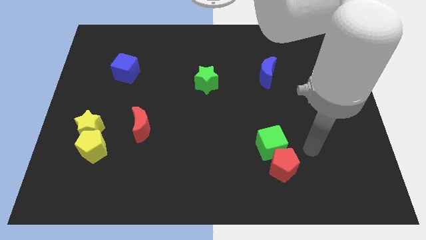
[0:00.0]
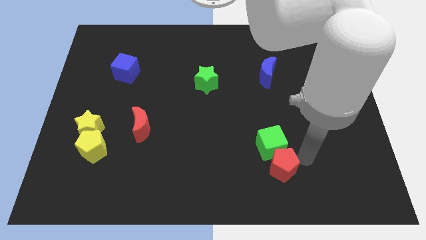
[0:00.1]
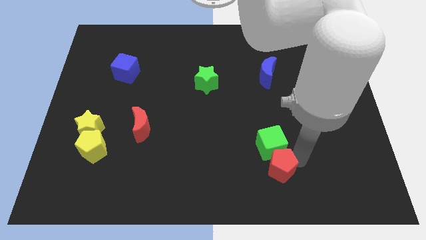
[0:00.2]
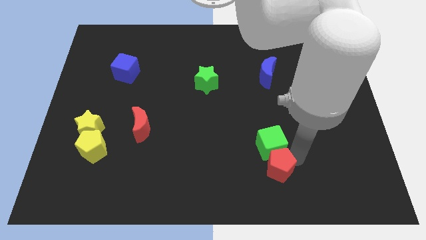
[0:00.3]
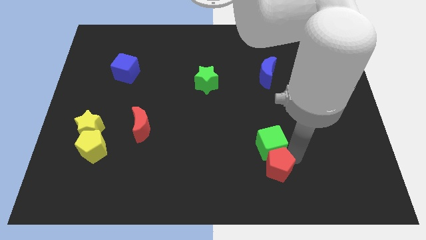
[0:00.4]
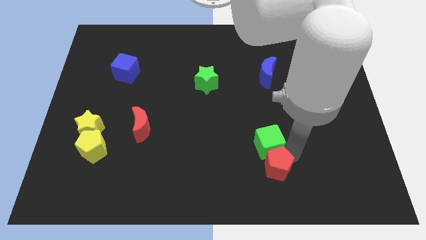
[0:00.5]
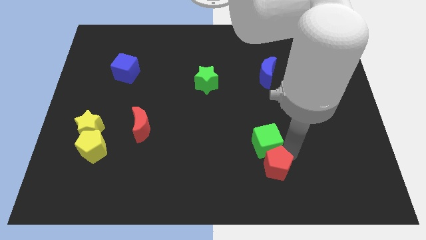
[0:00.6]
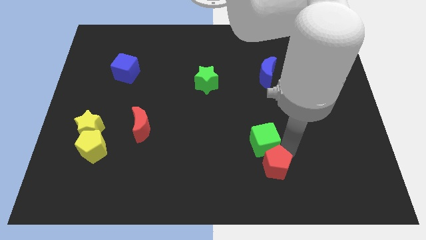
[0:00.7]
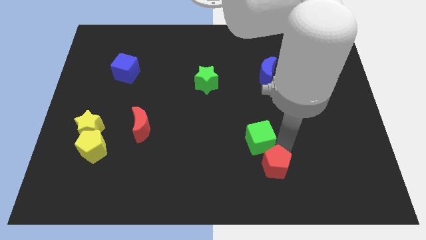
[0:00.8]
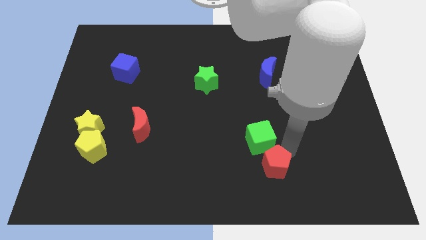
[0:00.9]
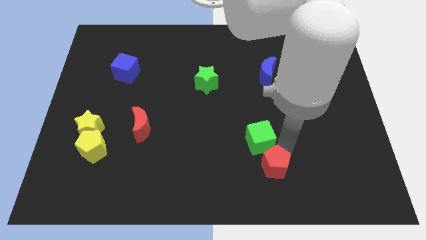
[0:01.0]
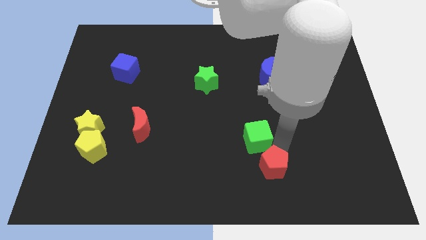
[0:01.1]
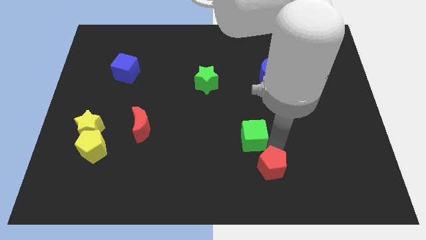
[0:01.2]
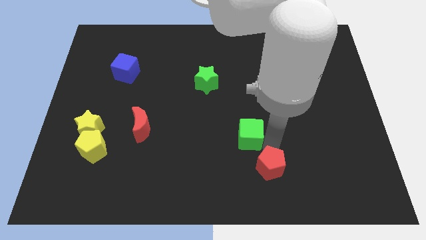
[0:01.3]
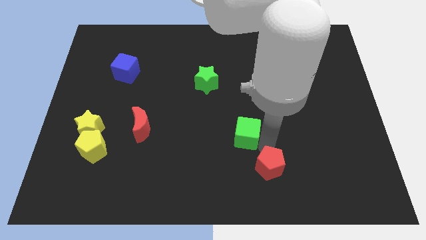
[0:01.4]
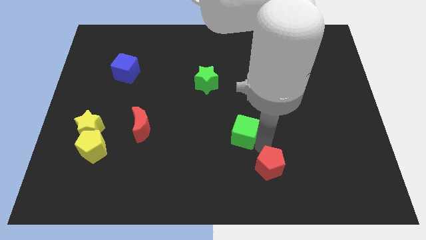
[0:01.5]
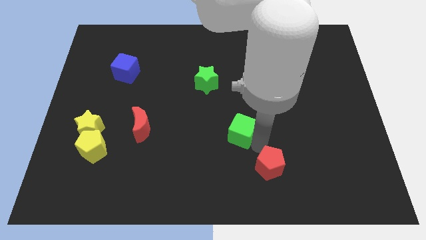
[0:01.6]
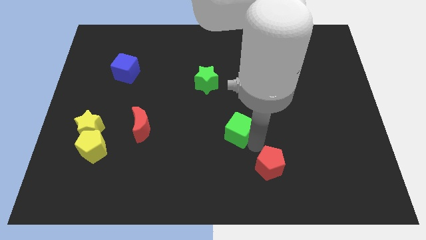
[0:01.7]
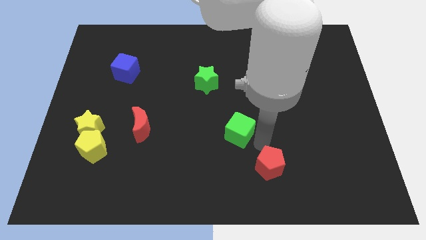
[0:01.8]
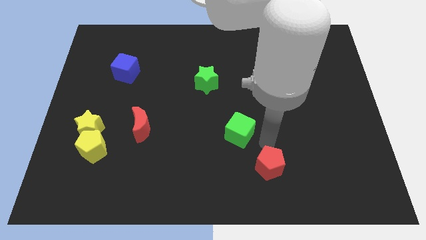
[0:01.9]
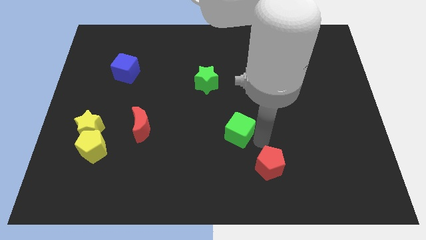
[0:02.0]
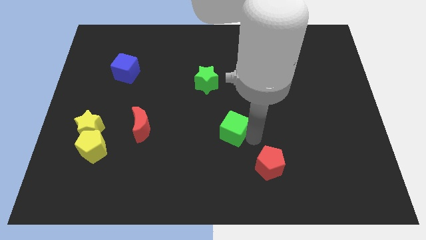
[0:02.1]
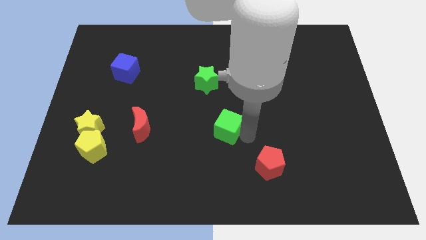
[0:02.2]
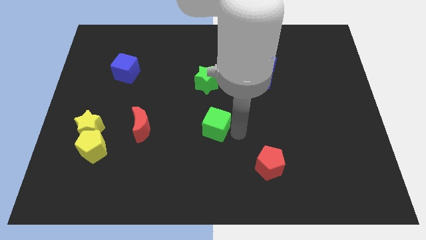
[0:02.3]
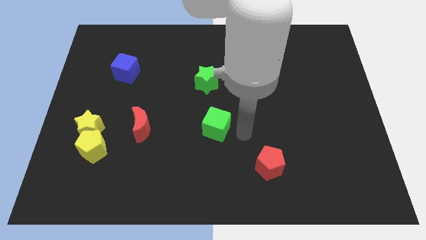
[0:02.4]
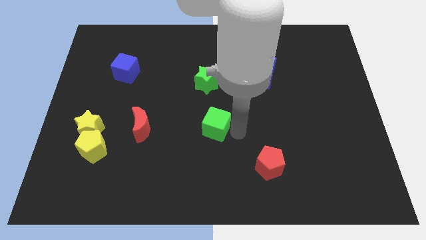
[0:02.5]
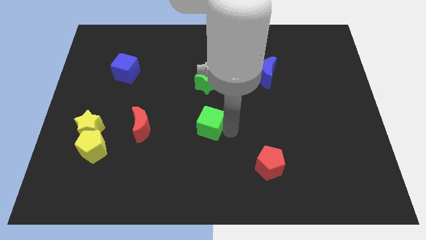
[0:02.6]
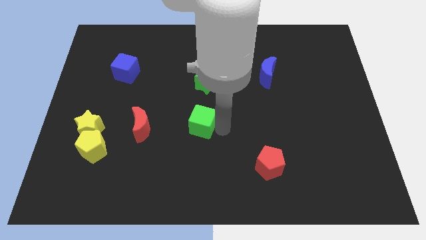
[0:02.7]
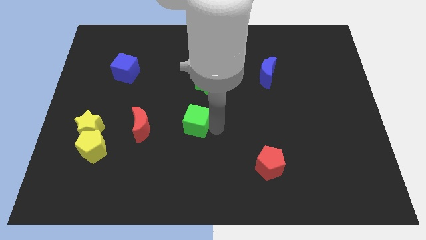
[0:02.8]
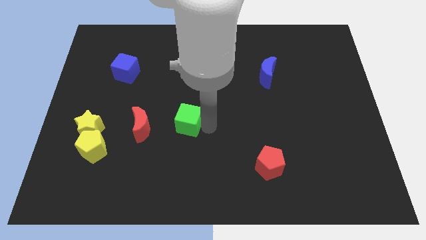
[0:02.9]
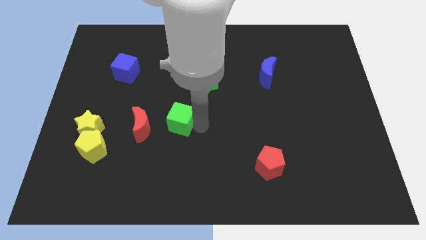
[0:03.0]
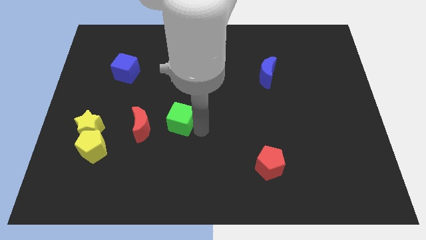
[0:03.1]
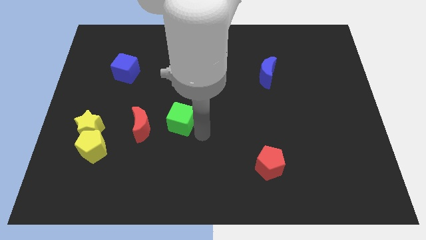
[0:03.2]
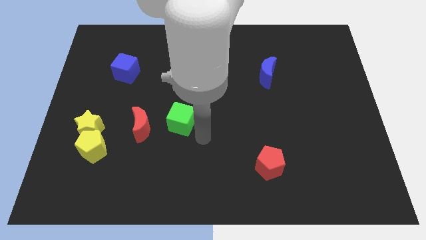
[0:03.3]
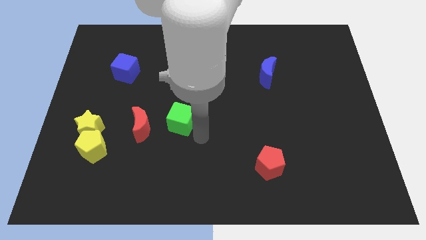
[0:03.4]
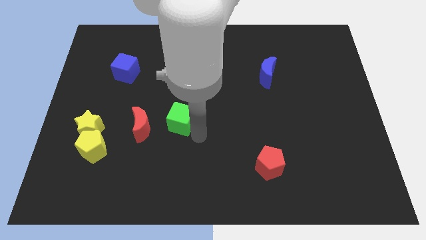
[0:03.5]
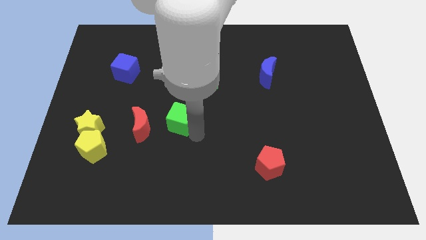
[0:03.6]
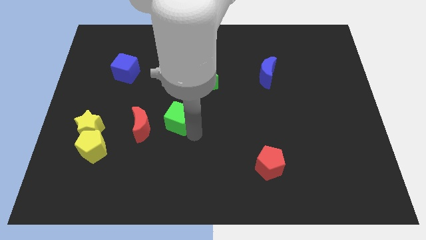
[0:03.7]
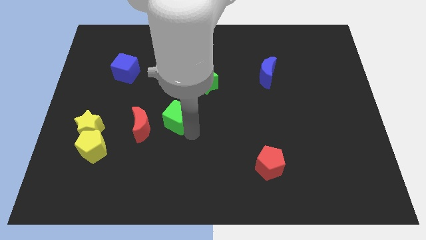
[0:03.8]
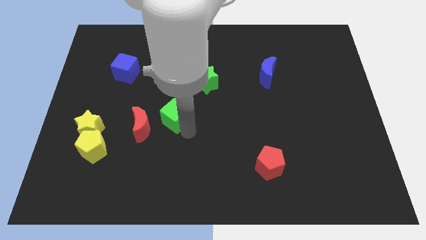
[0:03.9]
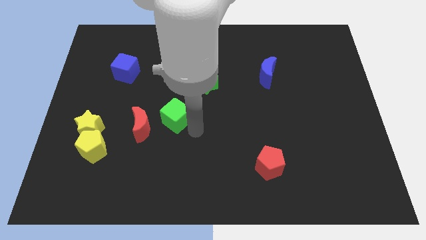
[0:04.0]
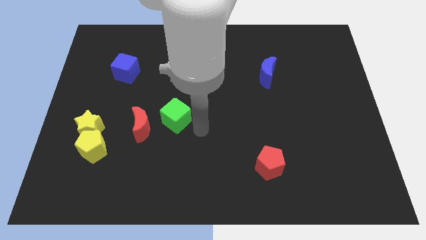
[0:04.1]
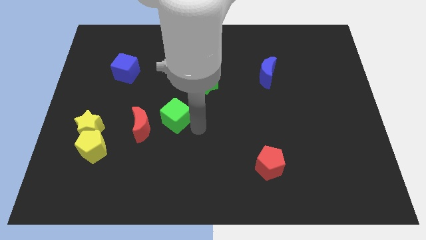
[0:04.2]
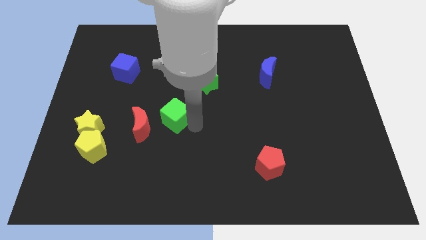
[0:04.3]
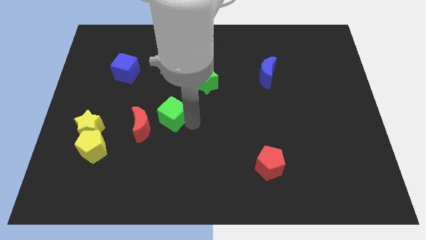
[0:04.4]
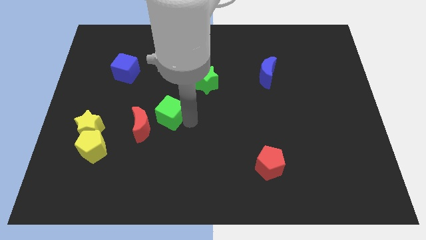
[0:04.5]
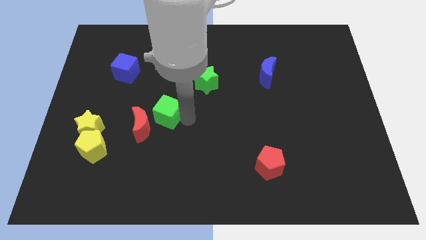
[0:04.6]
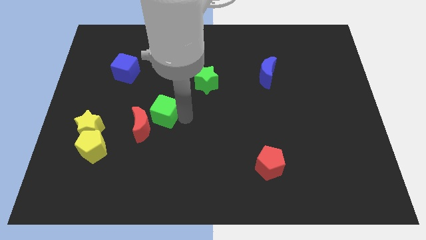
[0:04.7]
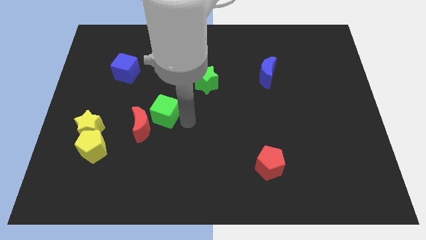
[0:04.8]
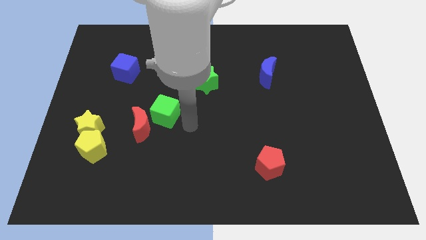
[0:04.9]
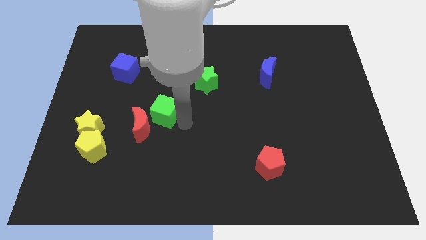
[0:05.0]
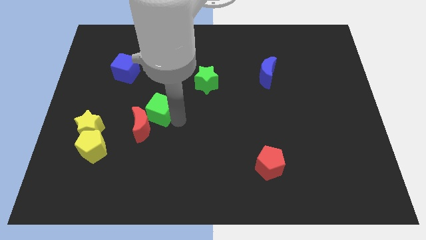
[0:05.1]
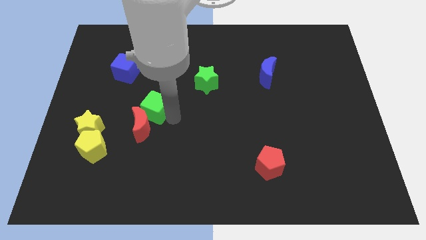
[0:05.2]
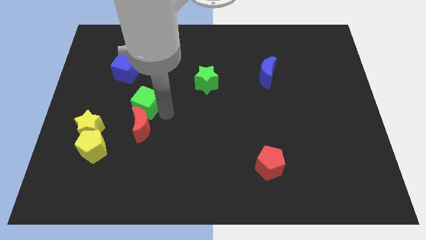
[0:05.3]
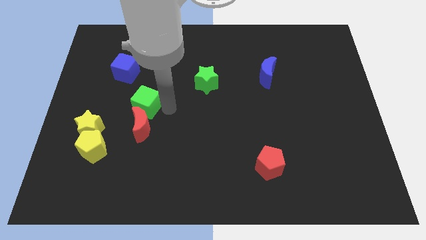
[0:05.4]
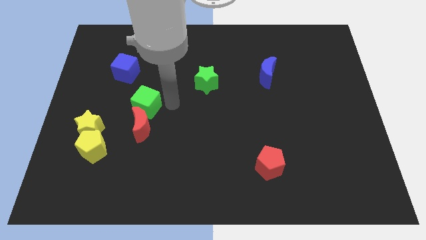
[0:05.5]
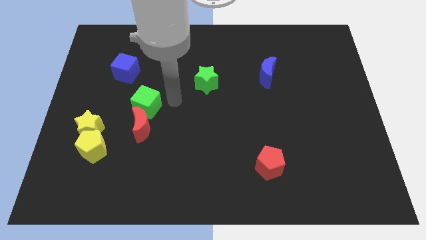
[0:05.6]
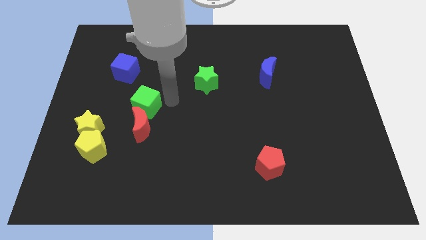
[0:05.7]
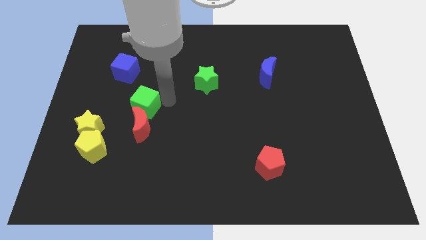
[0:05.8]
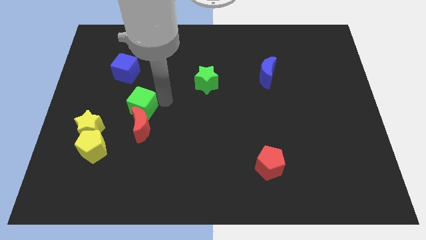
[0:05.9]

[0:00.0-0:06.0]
slide the green cube diagonally up and to the right of the yellow star
